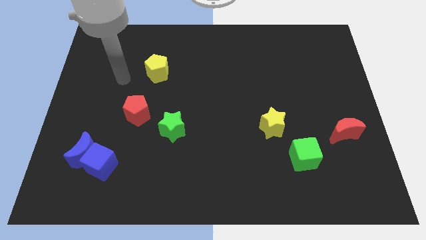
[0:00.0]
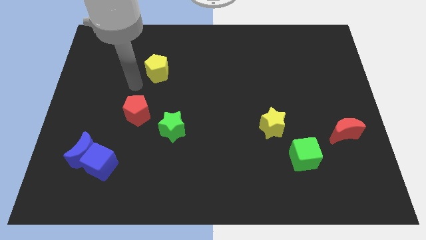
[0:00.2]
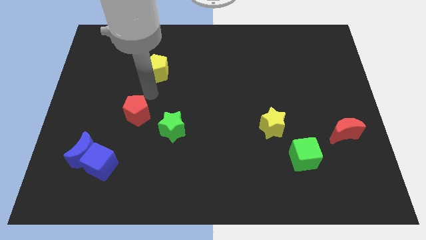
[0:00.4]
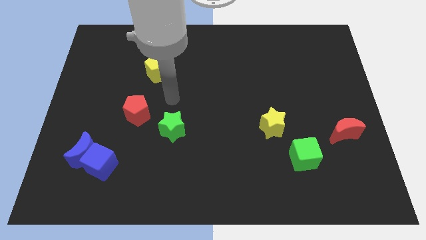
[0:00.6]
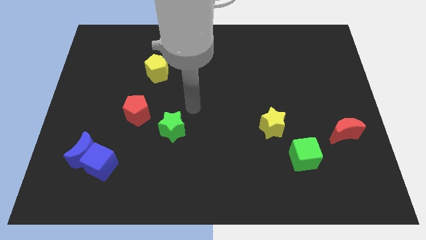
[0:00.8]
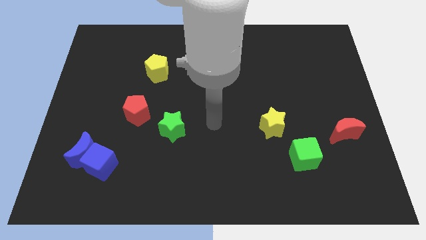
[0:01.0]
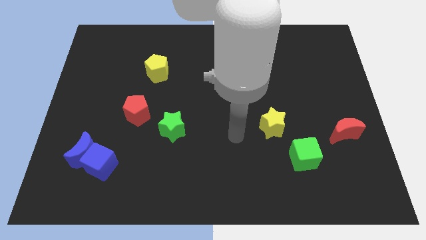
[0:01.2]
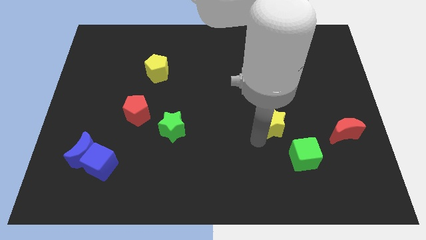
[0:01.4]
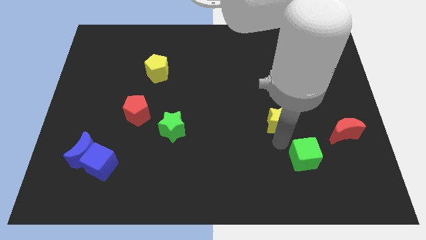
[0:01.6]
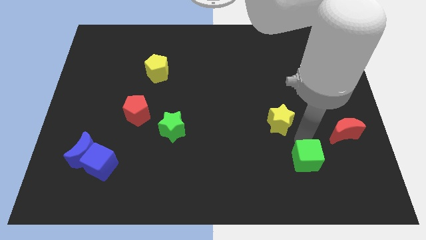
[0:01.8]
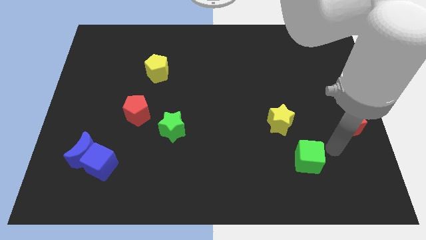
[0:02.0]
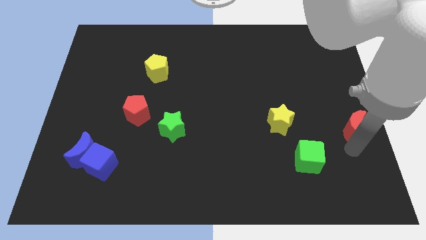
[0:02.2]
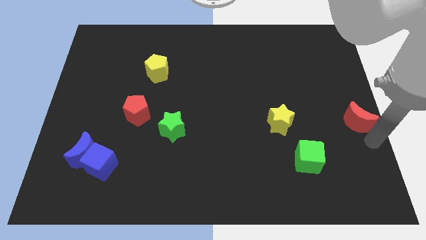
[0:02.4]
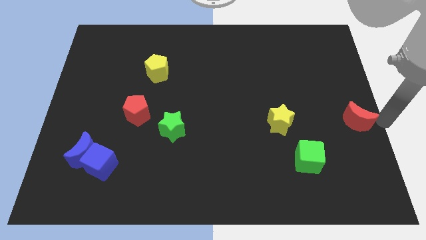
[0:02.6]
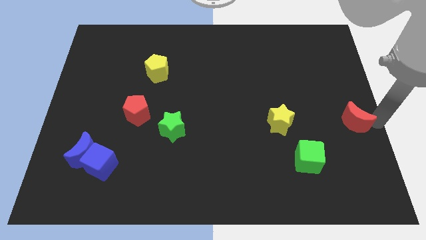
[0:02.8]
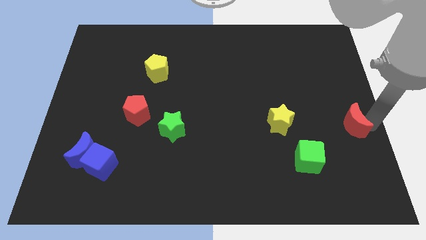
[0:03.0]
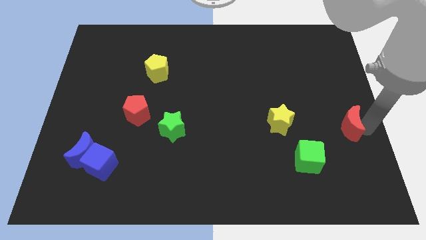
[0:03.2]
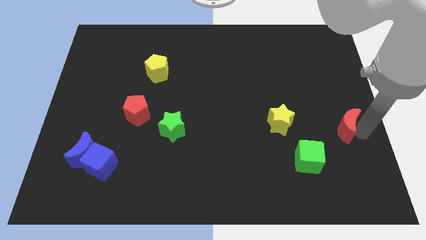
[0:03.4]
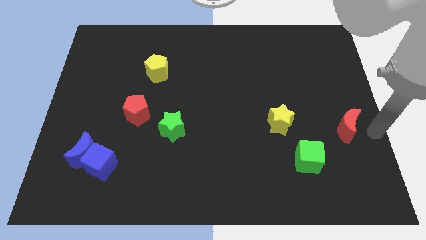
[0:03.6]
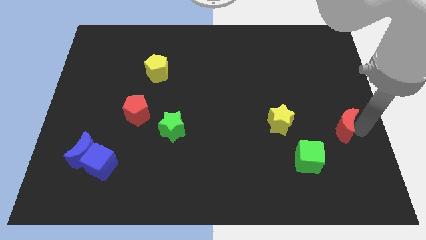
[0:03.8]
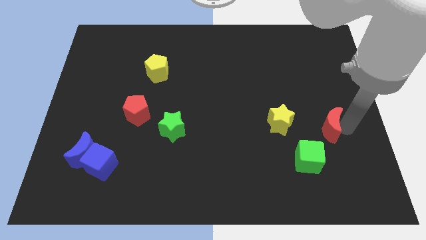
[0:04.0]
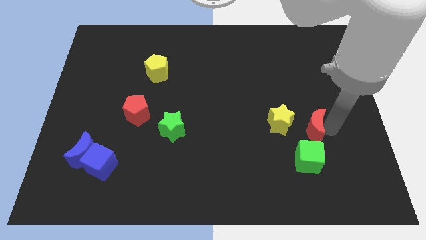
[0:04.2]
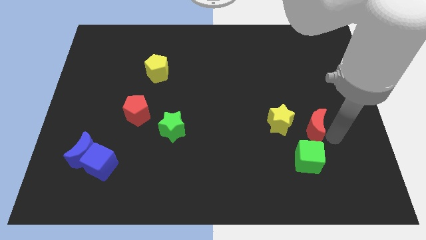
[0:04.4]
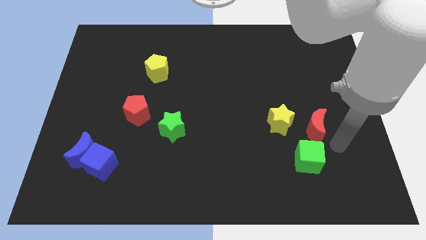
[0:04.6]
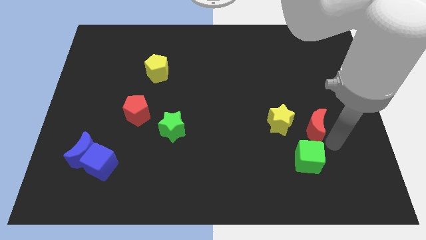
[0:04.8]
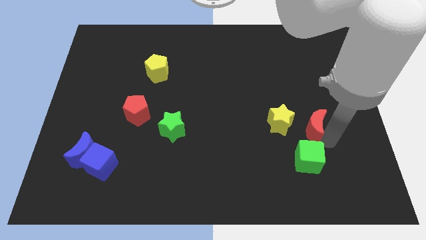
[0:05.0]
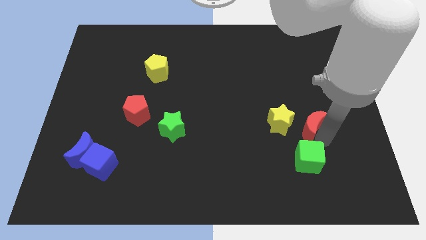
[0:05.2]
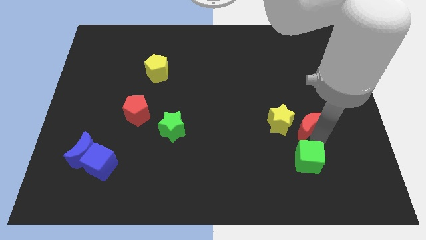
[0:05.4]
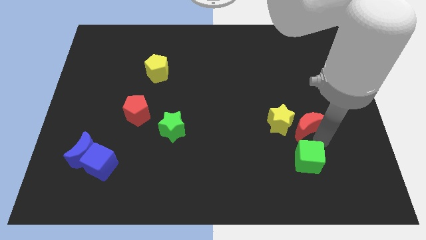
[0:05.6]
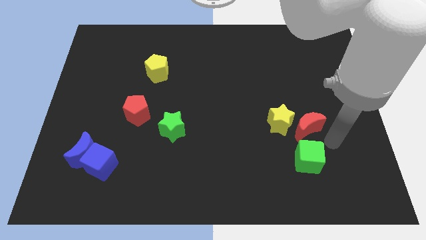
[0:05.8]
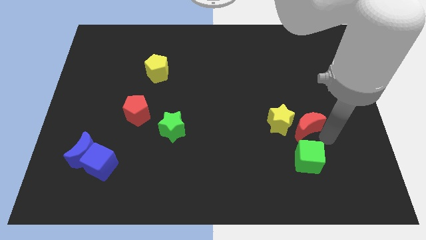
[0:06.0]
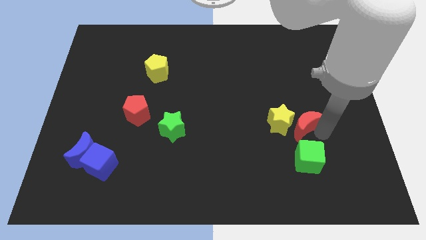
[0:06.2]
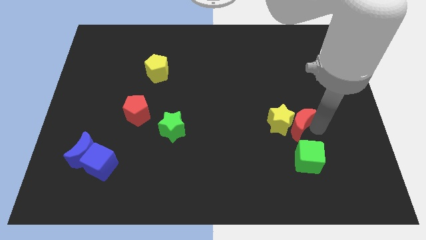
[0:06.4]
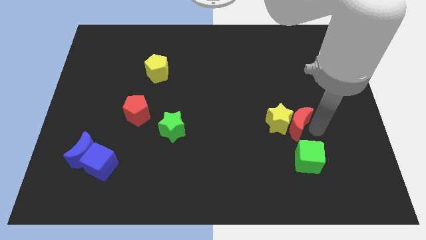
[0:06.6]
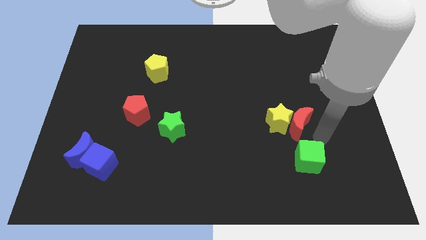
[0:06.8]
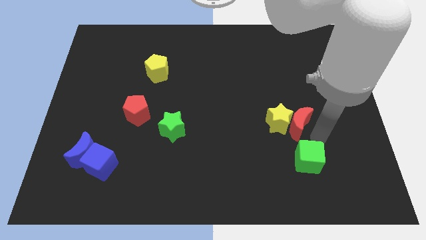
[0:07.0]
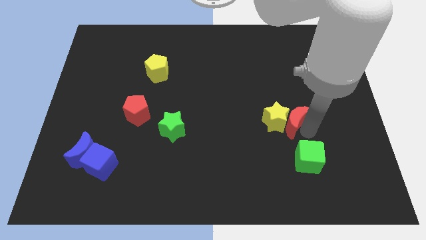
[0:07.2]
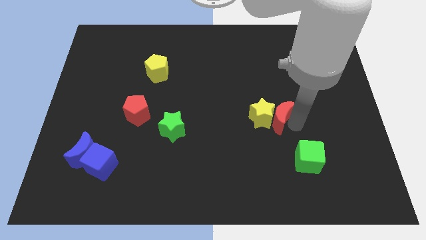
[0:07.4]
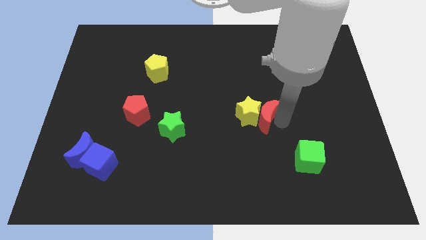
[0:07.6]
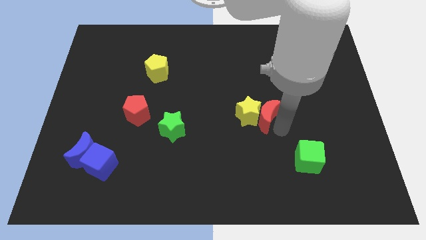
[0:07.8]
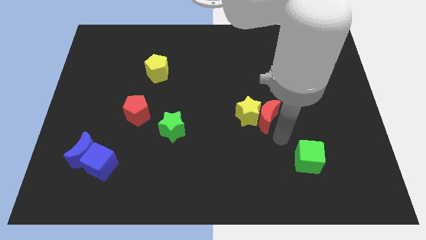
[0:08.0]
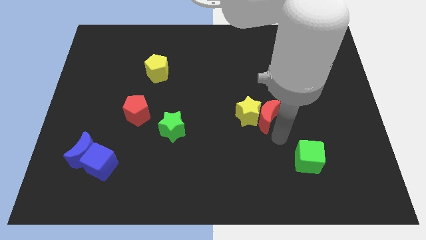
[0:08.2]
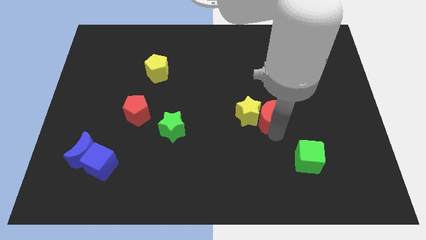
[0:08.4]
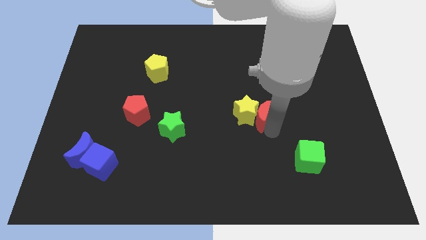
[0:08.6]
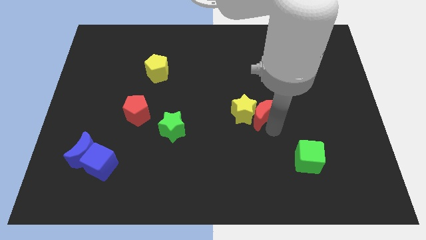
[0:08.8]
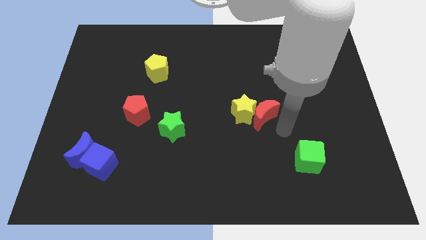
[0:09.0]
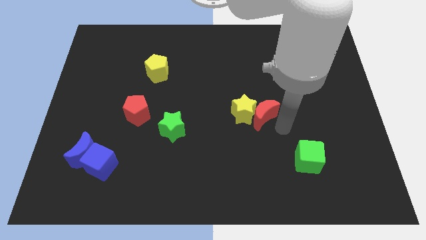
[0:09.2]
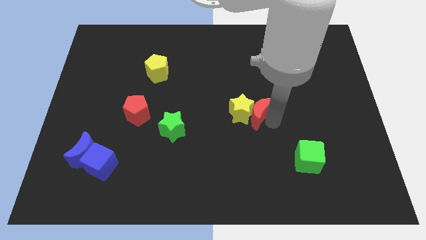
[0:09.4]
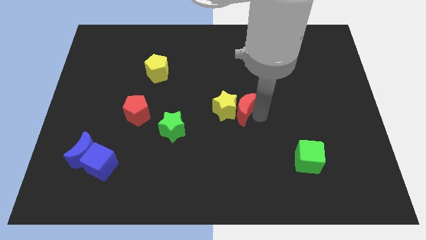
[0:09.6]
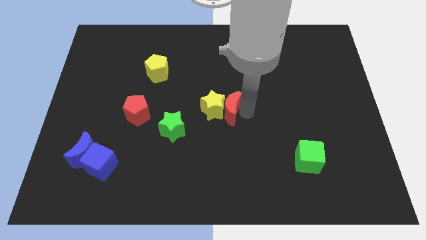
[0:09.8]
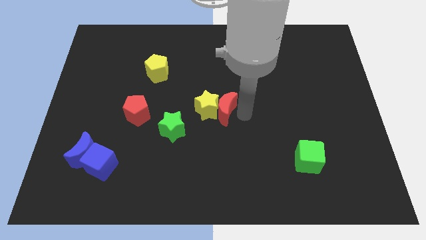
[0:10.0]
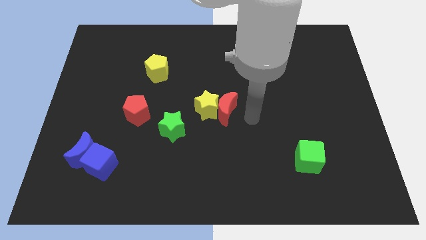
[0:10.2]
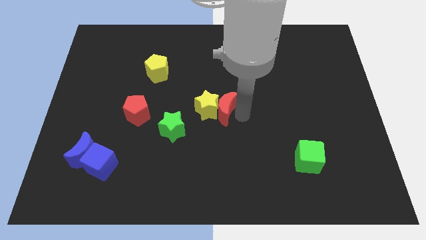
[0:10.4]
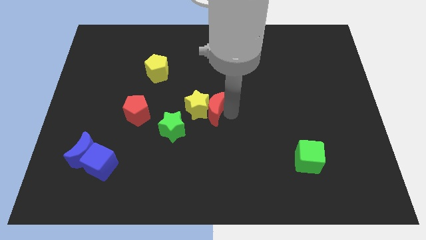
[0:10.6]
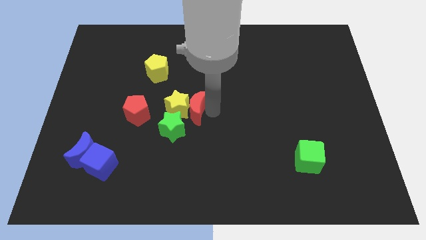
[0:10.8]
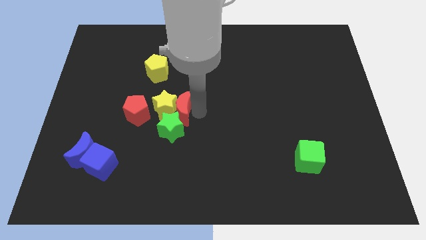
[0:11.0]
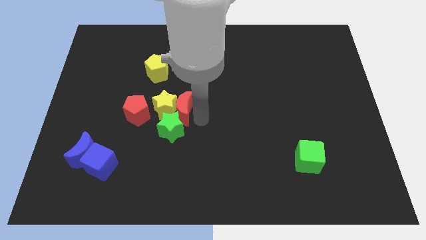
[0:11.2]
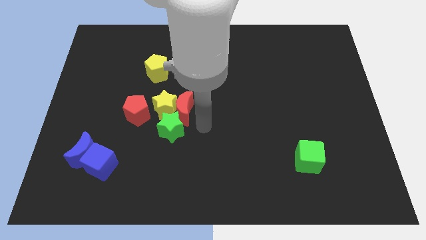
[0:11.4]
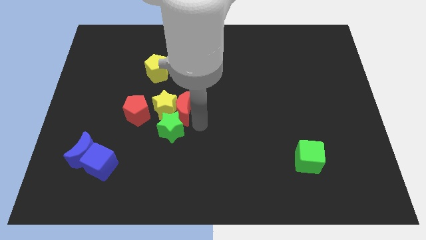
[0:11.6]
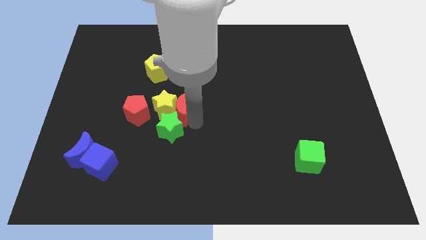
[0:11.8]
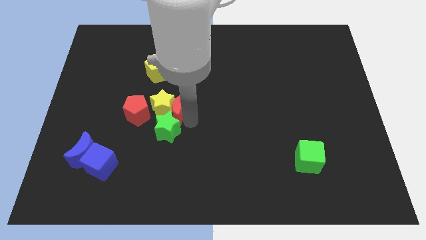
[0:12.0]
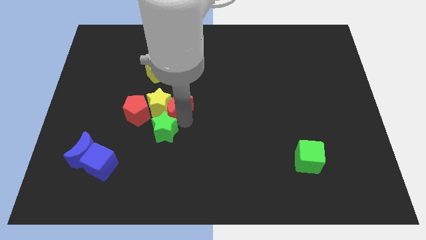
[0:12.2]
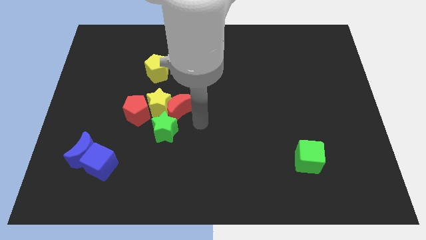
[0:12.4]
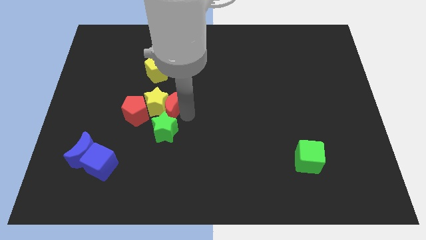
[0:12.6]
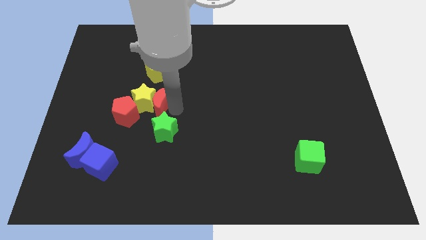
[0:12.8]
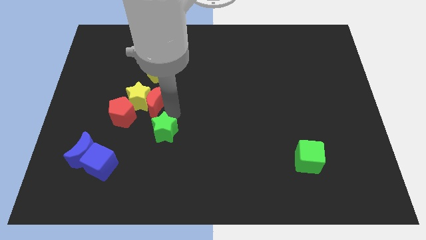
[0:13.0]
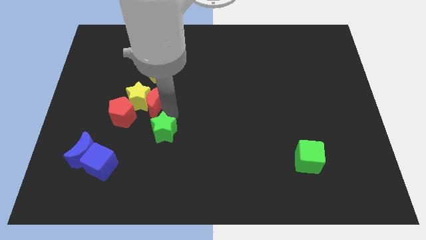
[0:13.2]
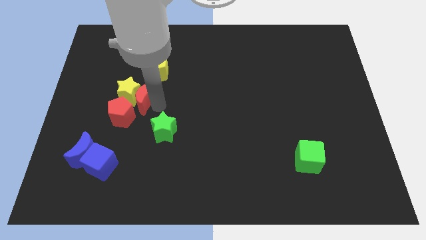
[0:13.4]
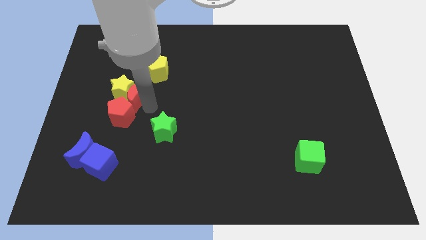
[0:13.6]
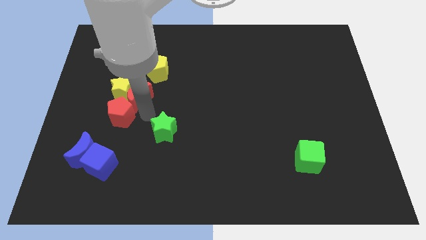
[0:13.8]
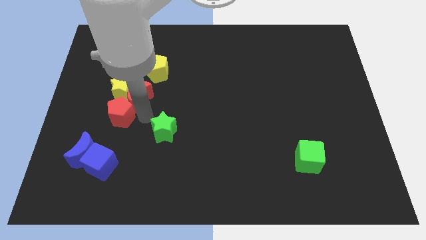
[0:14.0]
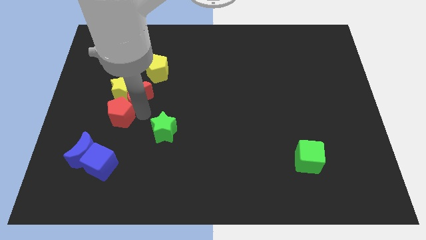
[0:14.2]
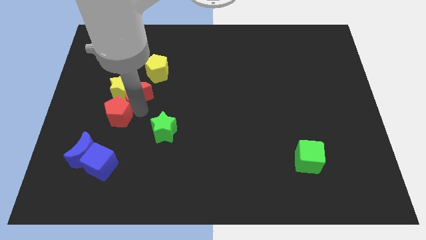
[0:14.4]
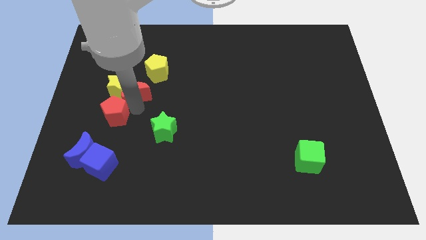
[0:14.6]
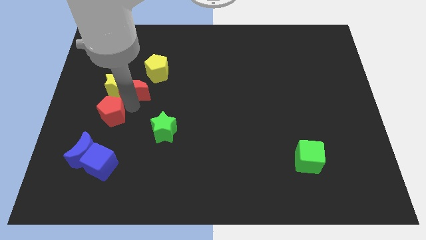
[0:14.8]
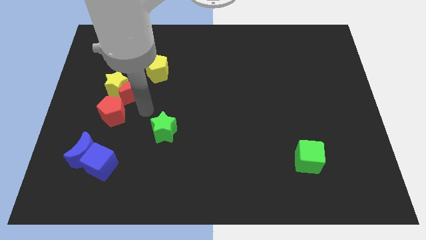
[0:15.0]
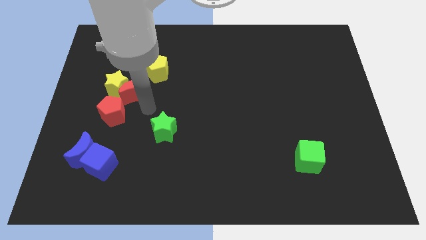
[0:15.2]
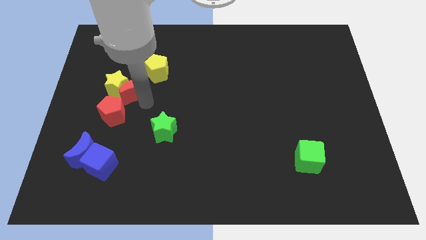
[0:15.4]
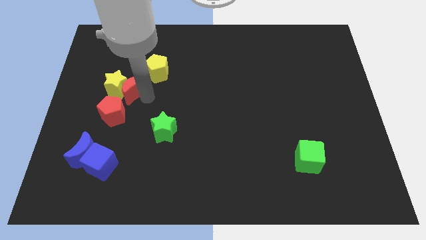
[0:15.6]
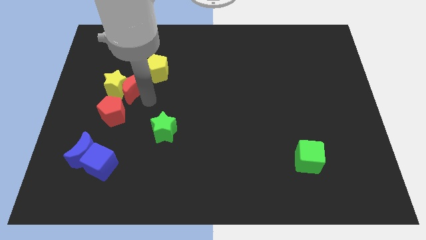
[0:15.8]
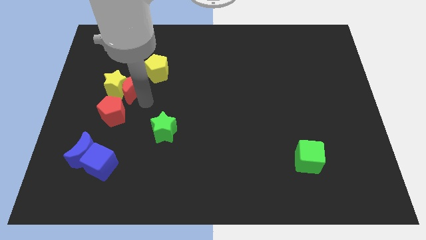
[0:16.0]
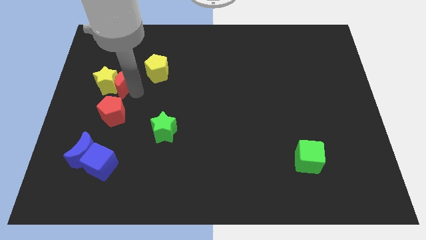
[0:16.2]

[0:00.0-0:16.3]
put the red moon just left of the yellow pentagon
